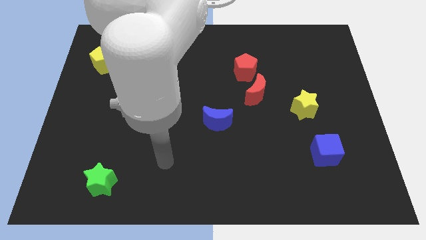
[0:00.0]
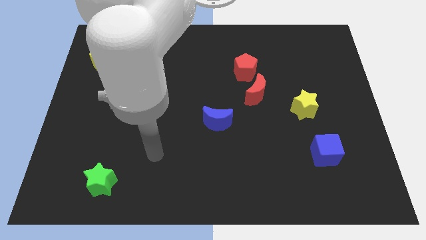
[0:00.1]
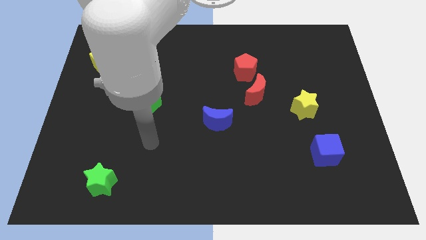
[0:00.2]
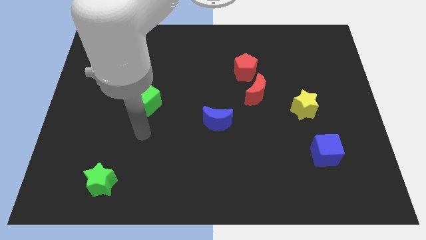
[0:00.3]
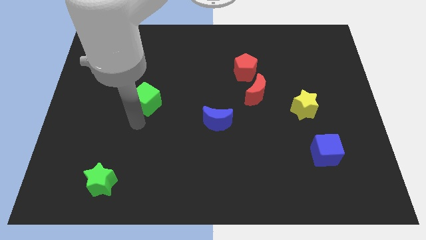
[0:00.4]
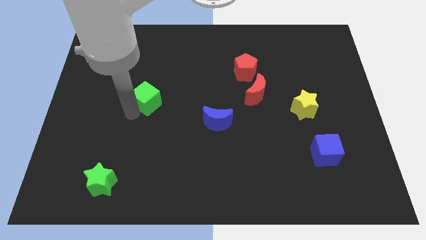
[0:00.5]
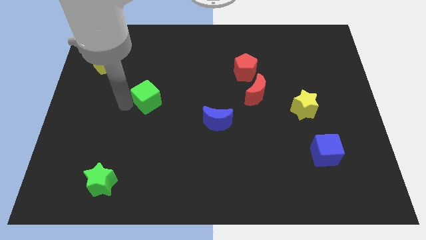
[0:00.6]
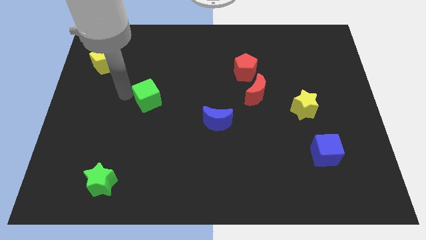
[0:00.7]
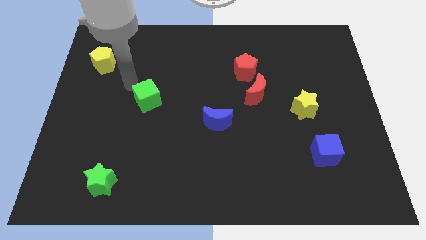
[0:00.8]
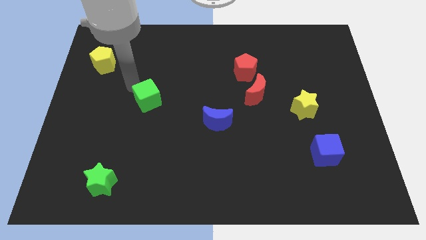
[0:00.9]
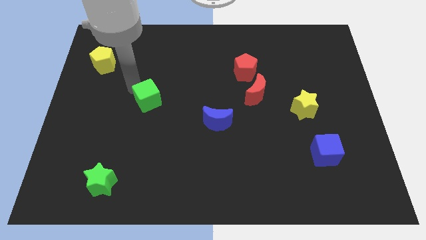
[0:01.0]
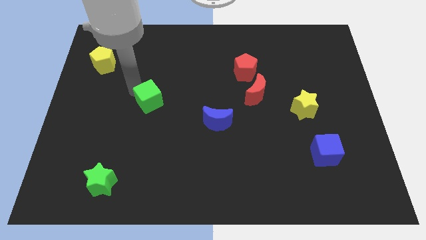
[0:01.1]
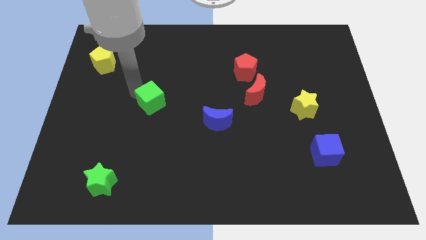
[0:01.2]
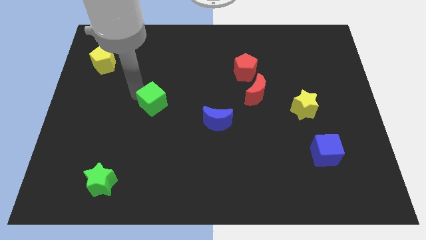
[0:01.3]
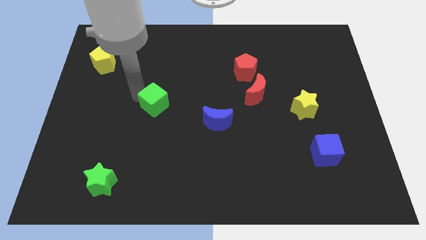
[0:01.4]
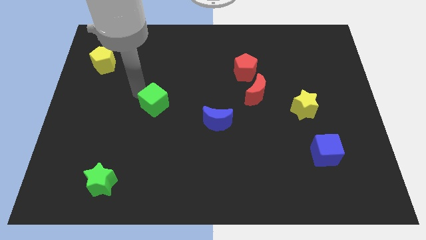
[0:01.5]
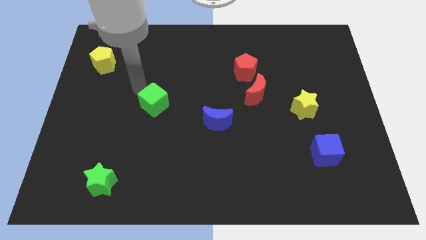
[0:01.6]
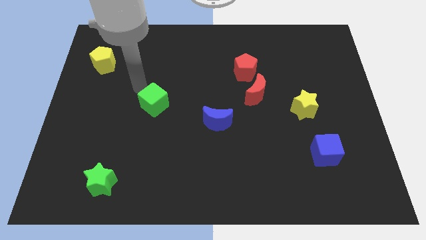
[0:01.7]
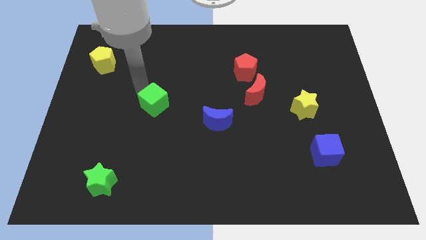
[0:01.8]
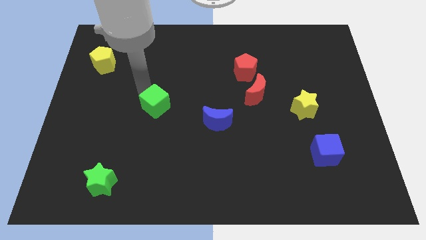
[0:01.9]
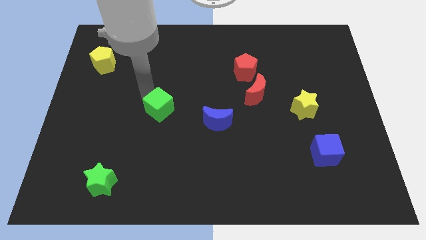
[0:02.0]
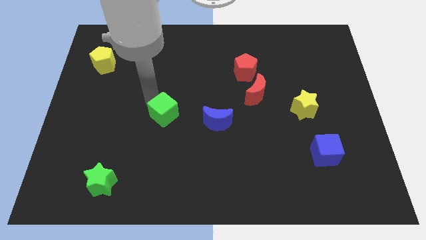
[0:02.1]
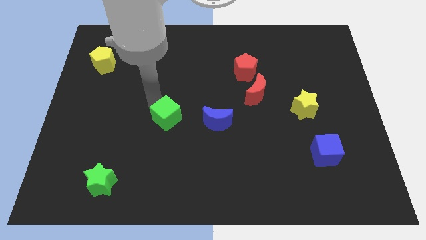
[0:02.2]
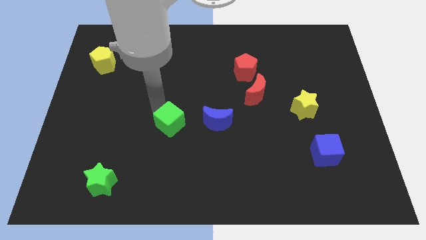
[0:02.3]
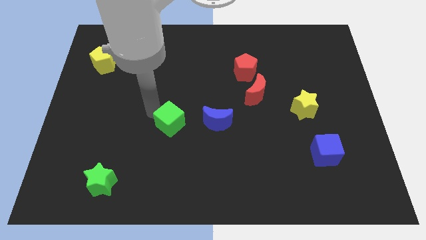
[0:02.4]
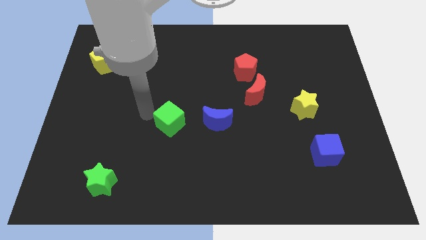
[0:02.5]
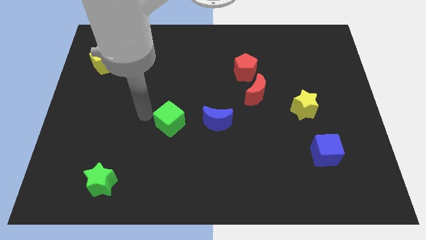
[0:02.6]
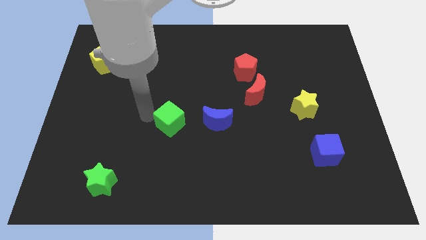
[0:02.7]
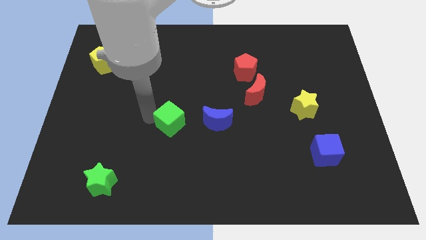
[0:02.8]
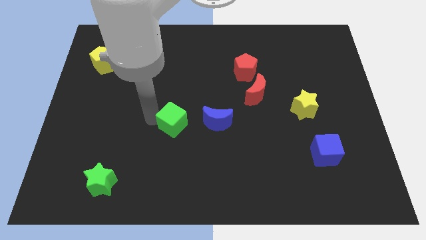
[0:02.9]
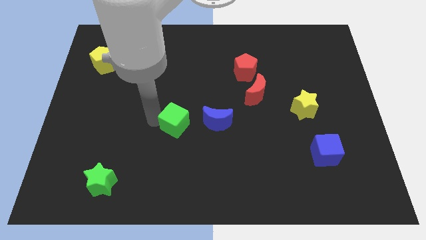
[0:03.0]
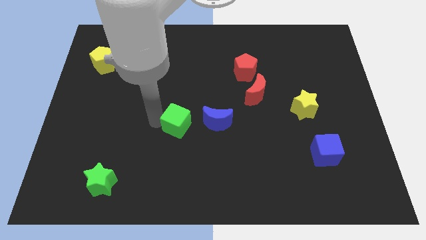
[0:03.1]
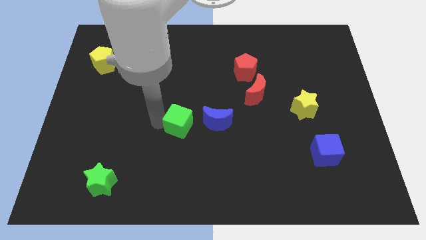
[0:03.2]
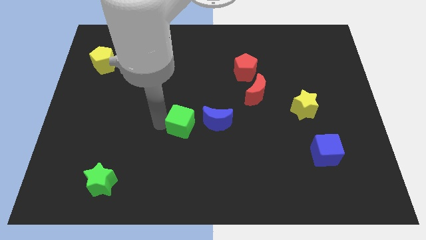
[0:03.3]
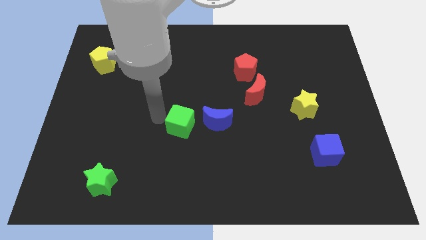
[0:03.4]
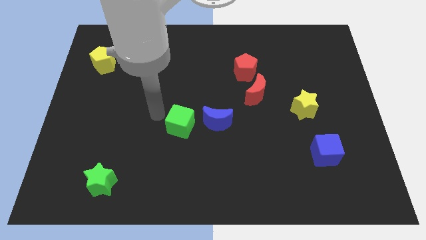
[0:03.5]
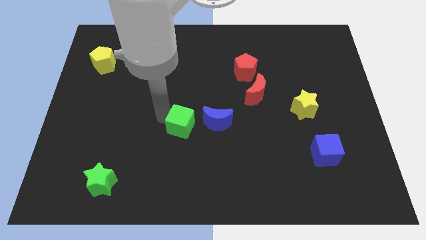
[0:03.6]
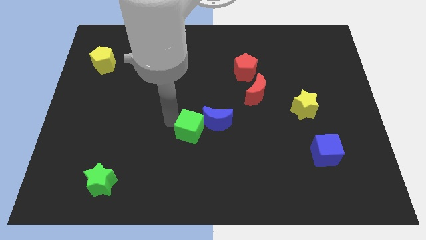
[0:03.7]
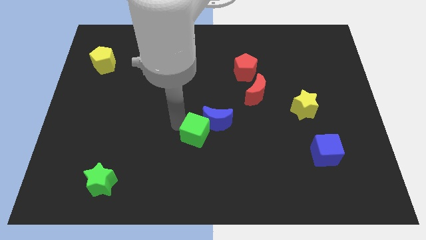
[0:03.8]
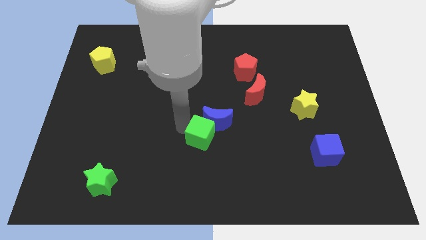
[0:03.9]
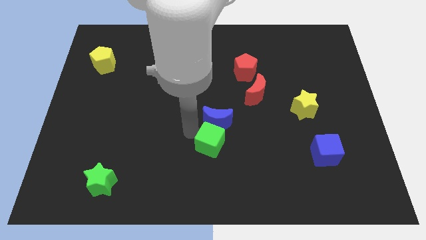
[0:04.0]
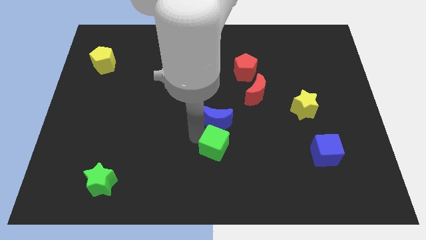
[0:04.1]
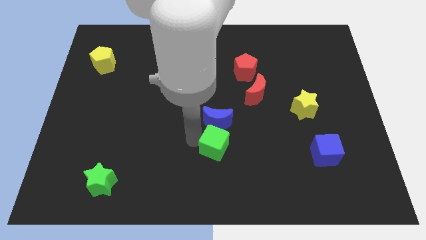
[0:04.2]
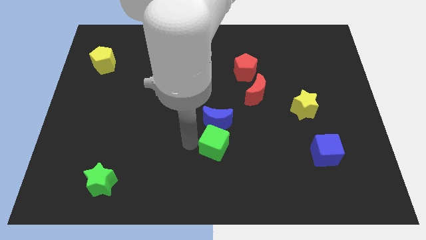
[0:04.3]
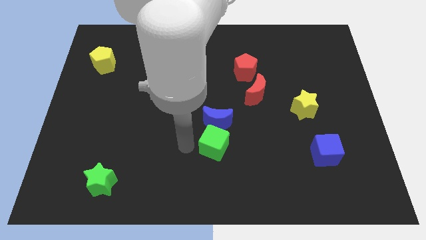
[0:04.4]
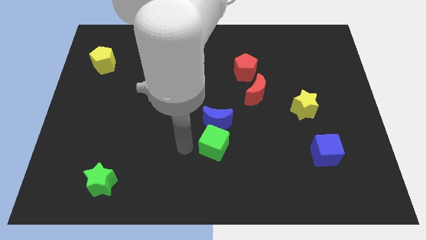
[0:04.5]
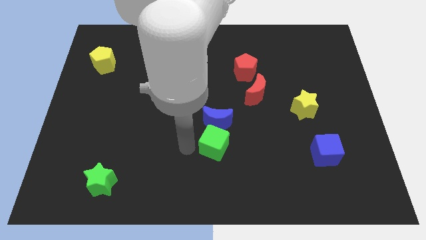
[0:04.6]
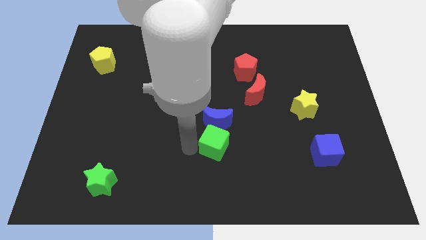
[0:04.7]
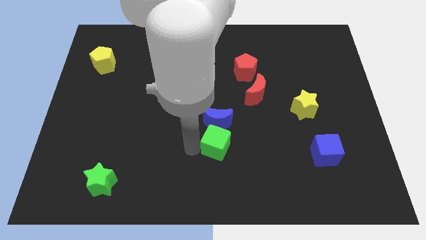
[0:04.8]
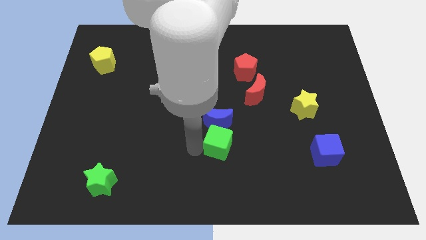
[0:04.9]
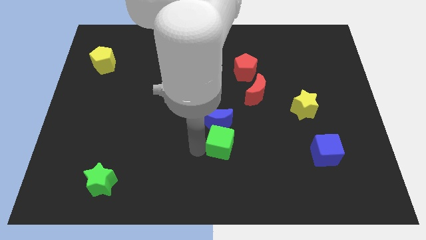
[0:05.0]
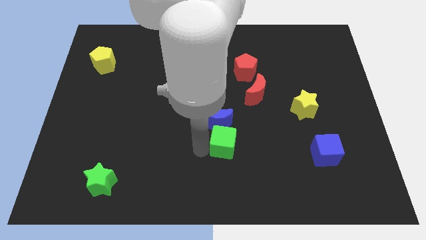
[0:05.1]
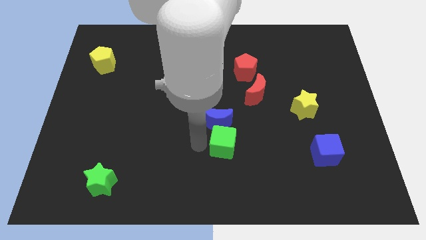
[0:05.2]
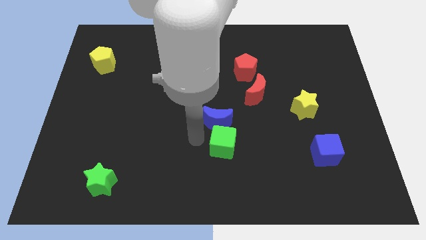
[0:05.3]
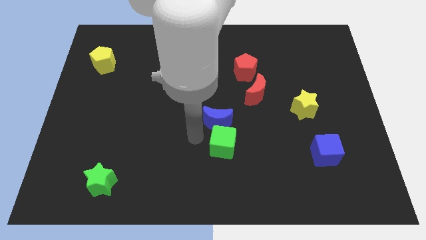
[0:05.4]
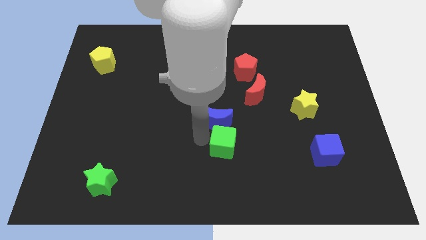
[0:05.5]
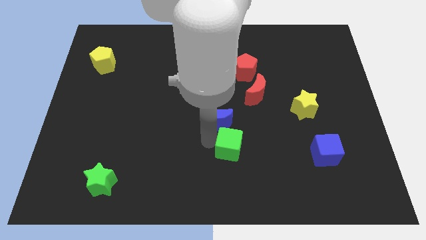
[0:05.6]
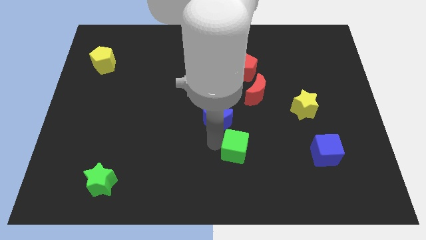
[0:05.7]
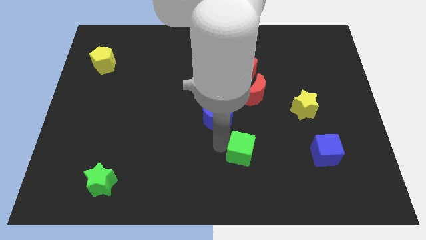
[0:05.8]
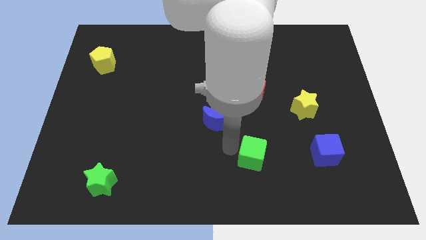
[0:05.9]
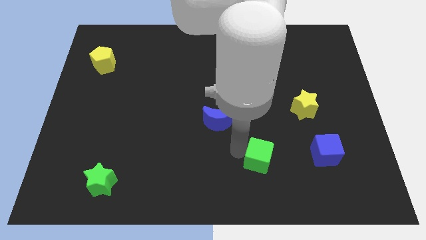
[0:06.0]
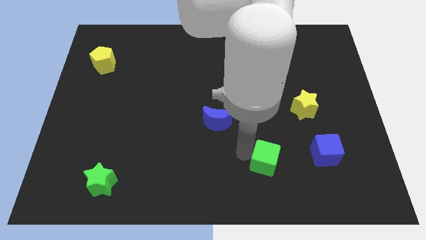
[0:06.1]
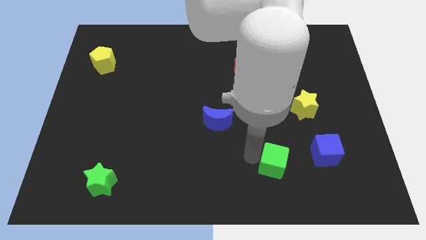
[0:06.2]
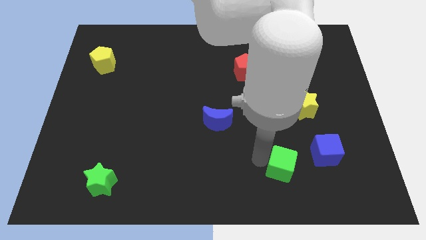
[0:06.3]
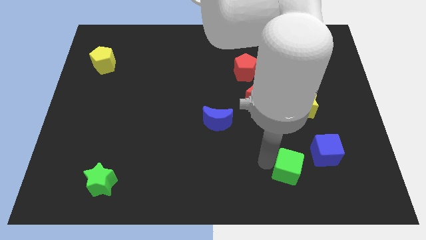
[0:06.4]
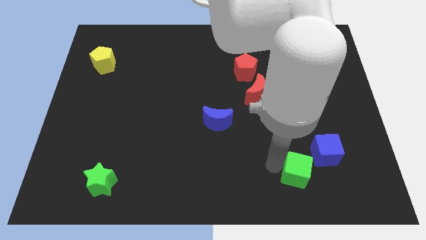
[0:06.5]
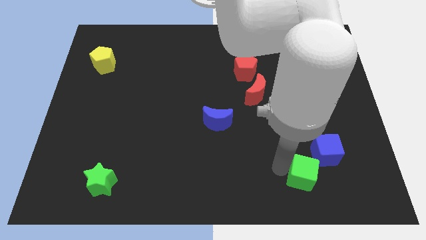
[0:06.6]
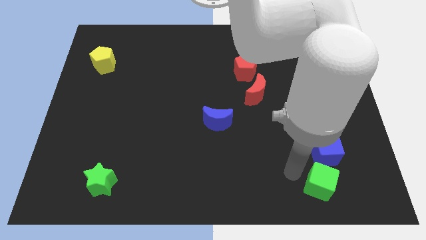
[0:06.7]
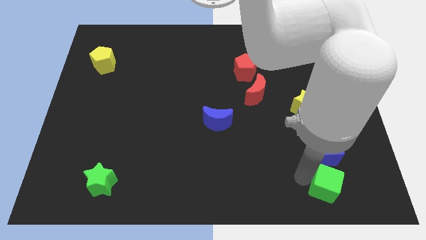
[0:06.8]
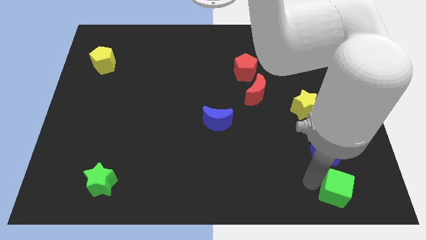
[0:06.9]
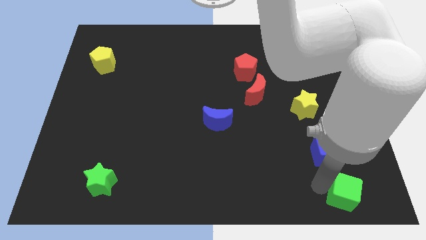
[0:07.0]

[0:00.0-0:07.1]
put the green cube to the bottom right

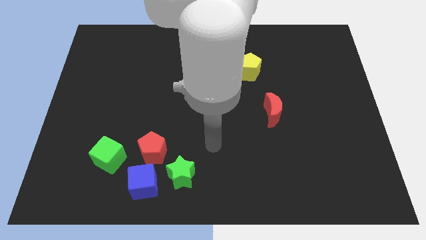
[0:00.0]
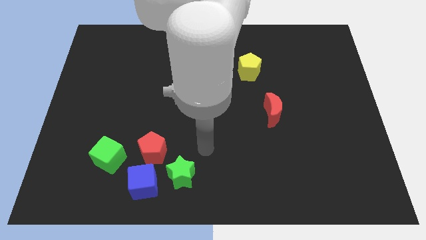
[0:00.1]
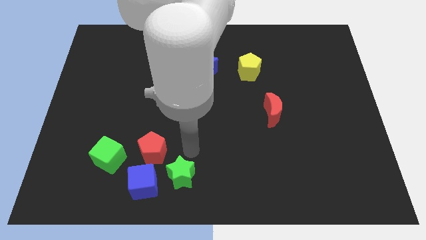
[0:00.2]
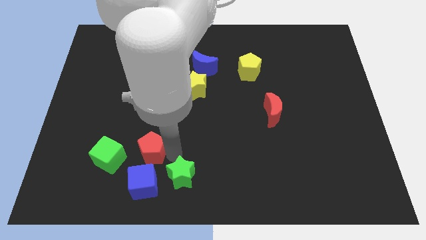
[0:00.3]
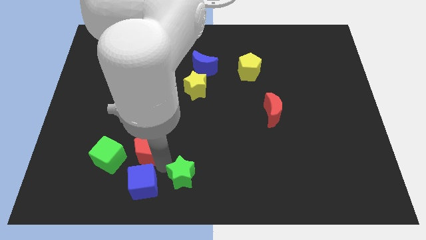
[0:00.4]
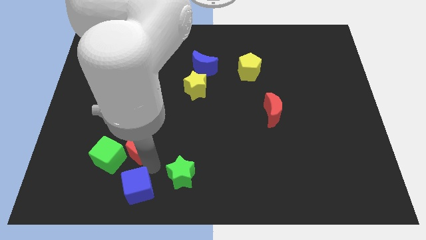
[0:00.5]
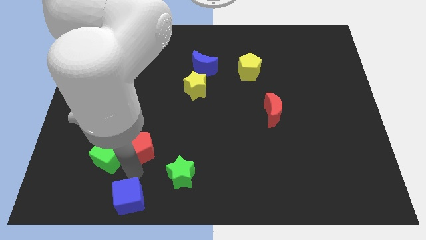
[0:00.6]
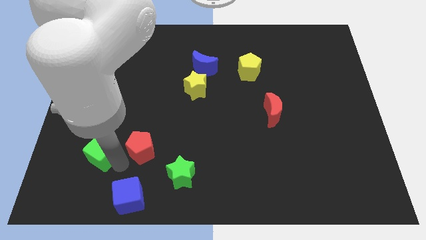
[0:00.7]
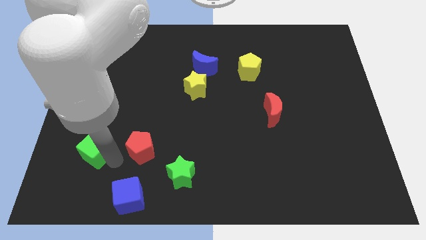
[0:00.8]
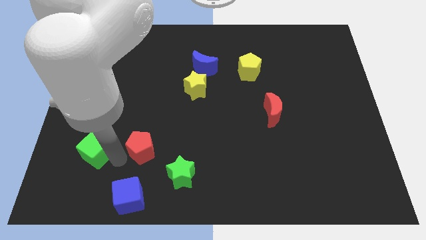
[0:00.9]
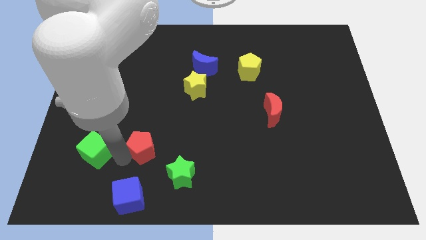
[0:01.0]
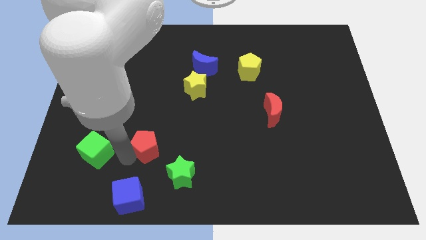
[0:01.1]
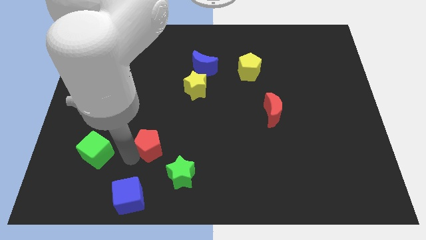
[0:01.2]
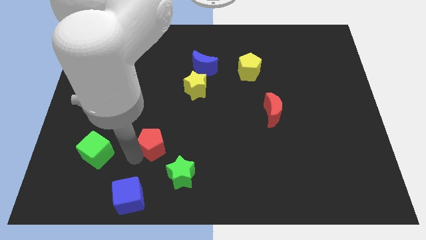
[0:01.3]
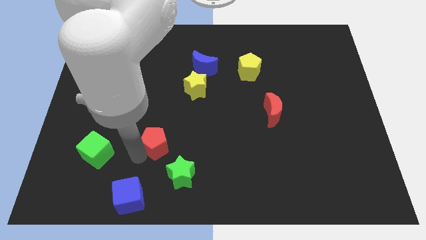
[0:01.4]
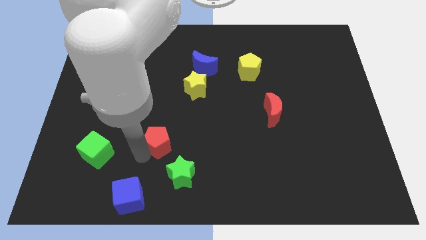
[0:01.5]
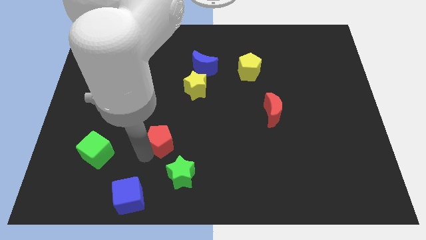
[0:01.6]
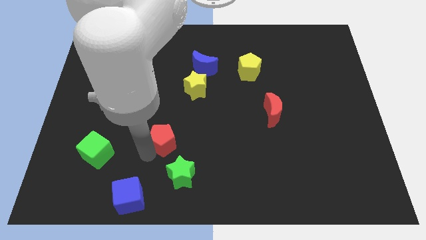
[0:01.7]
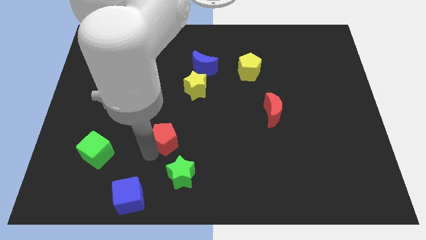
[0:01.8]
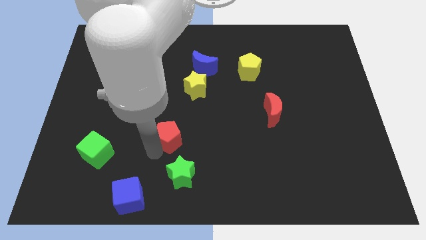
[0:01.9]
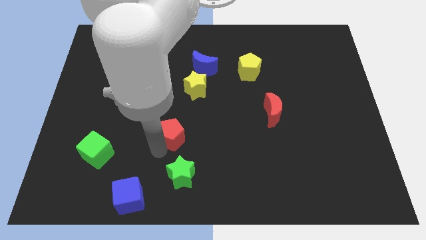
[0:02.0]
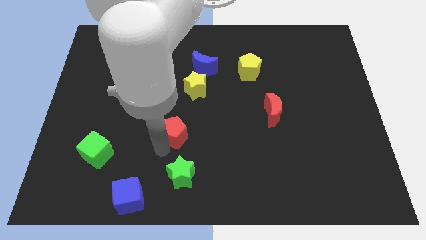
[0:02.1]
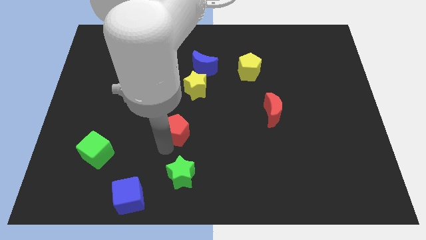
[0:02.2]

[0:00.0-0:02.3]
move the red pentagon to the middle
